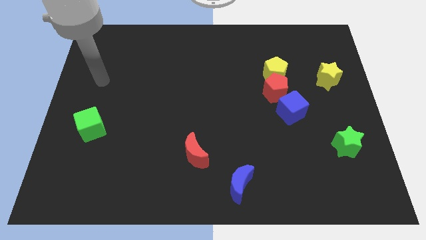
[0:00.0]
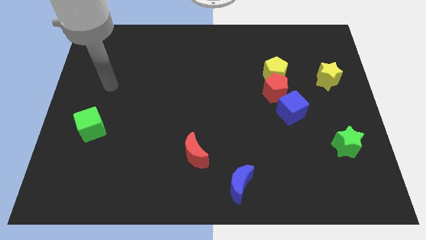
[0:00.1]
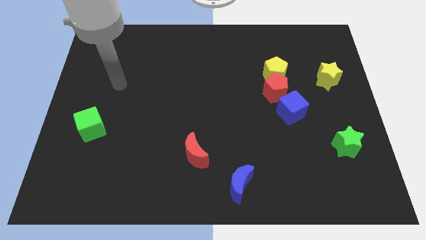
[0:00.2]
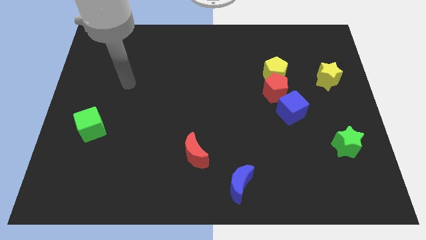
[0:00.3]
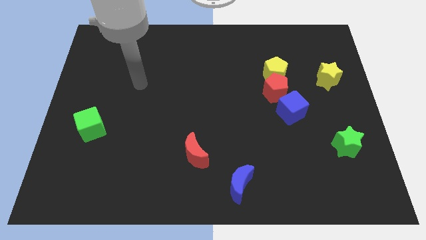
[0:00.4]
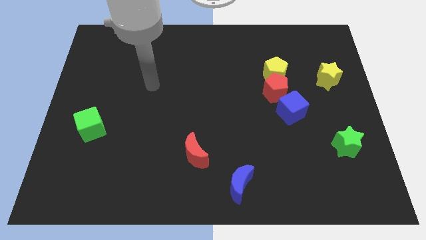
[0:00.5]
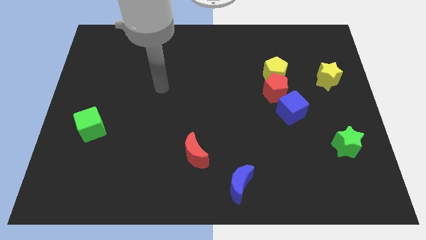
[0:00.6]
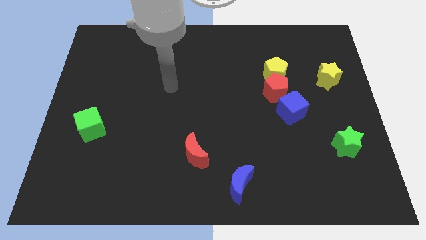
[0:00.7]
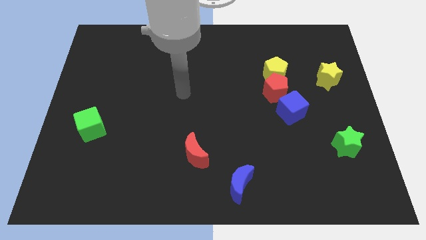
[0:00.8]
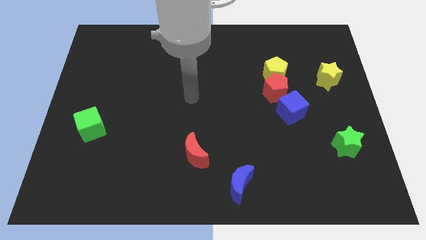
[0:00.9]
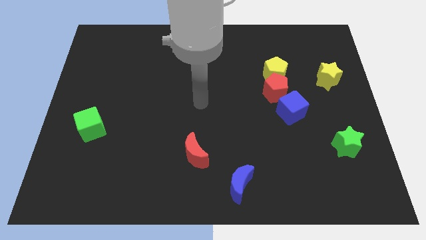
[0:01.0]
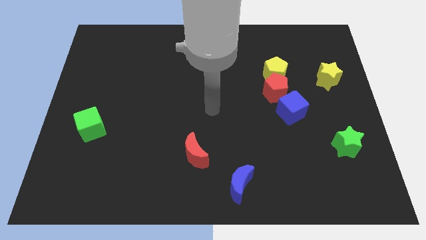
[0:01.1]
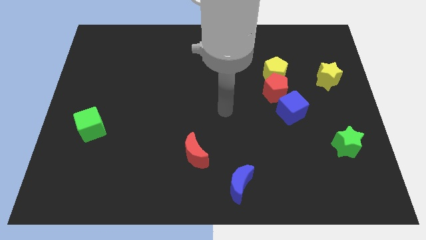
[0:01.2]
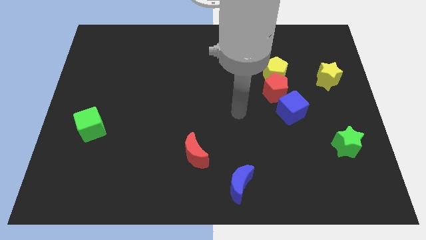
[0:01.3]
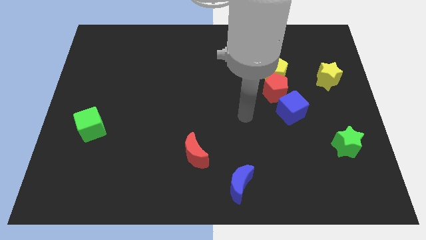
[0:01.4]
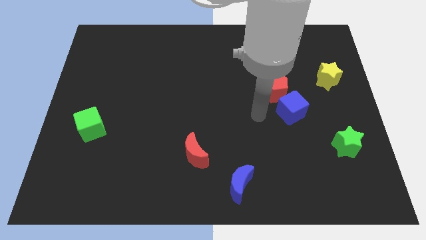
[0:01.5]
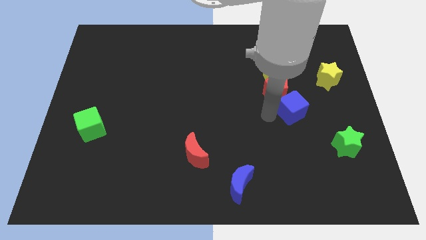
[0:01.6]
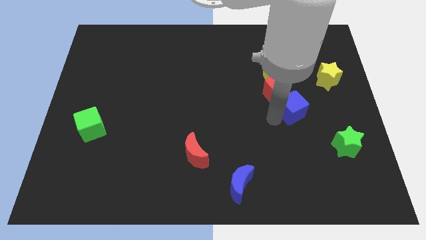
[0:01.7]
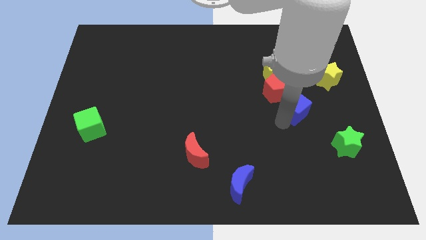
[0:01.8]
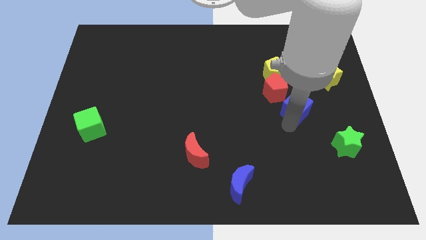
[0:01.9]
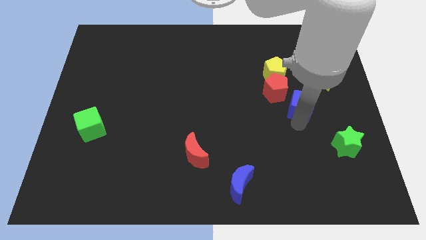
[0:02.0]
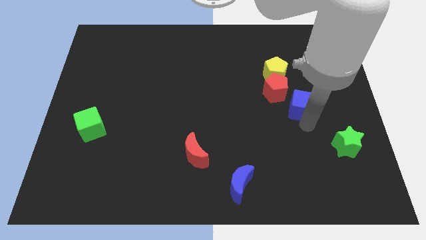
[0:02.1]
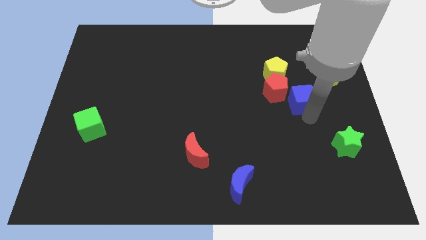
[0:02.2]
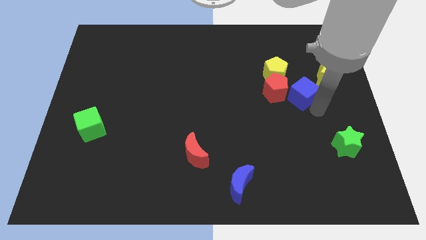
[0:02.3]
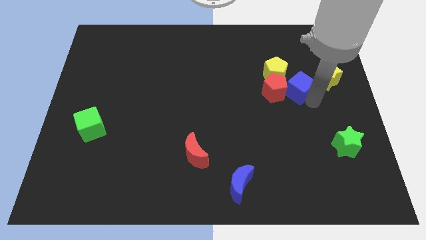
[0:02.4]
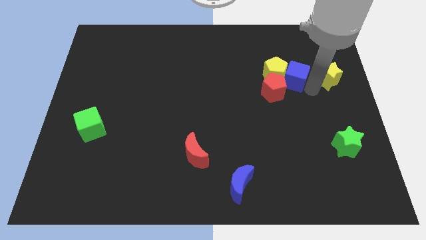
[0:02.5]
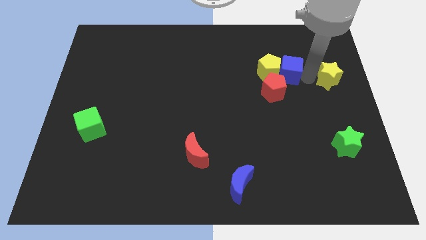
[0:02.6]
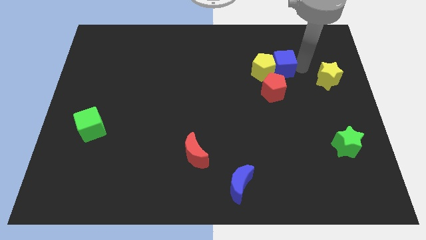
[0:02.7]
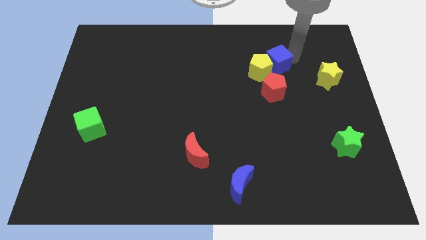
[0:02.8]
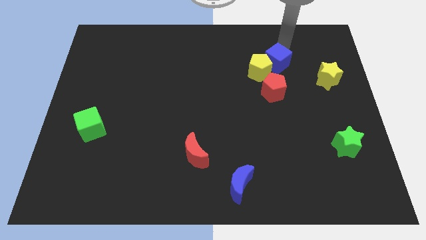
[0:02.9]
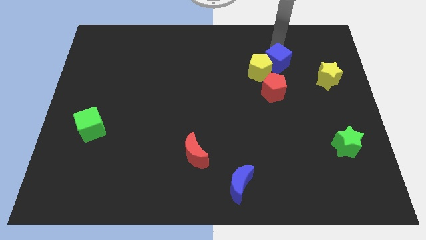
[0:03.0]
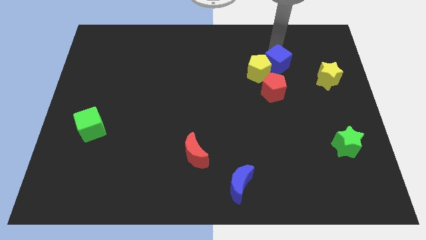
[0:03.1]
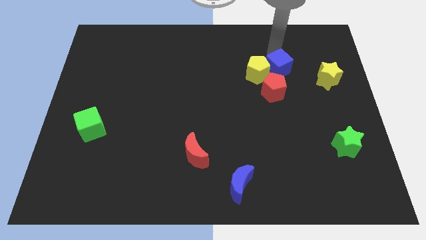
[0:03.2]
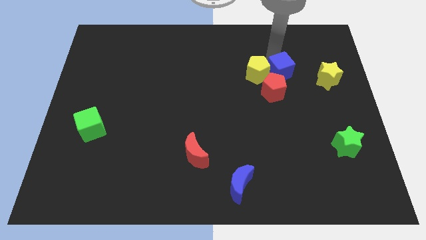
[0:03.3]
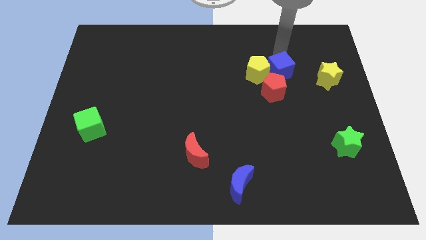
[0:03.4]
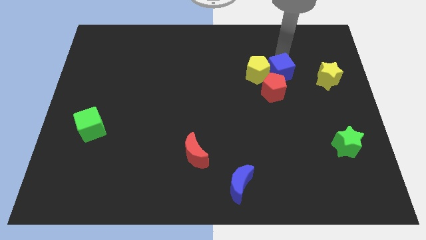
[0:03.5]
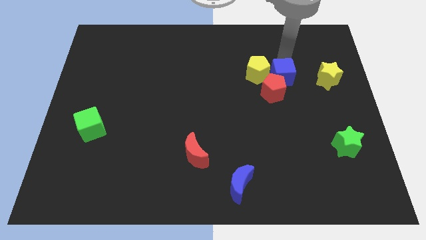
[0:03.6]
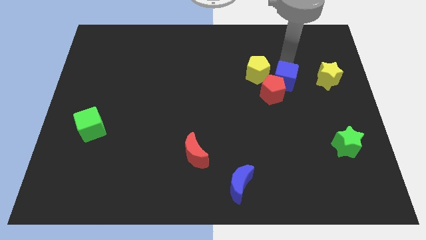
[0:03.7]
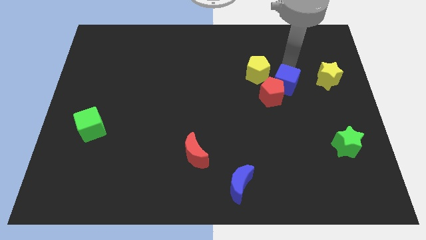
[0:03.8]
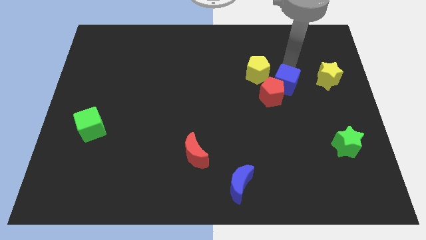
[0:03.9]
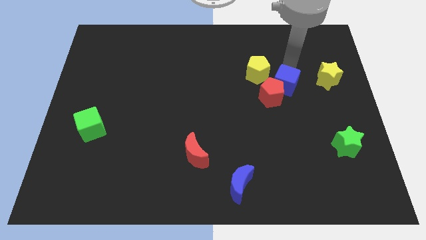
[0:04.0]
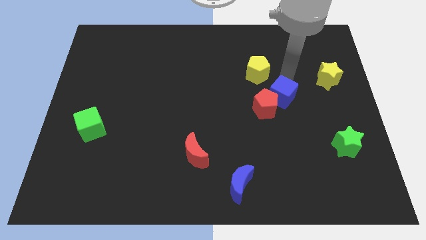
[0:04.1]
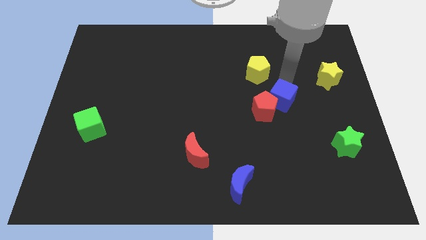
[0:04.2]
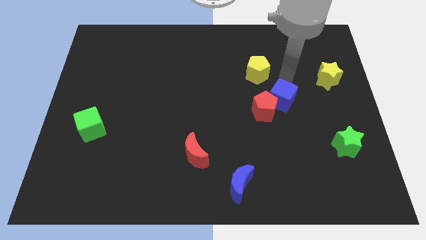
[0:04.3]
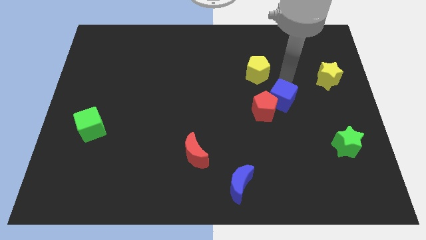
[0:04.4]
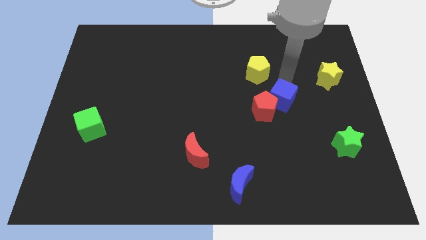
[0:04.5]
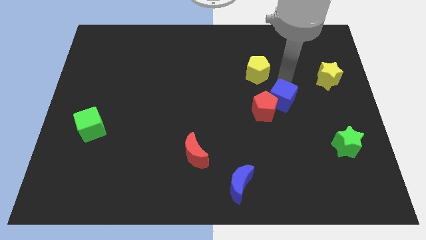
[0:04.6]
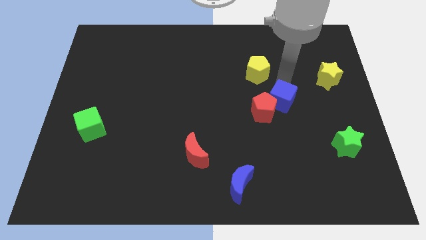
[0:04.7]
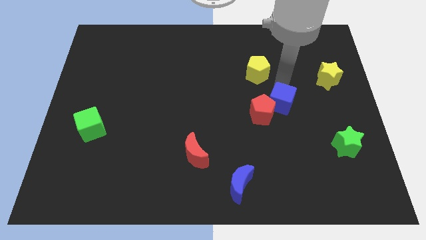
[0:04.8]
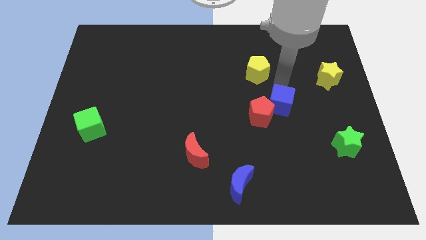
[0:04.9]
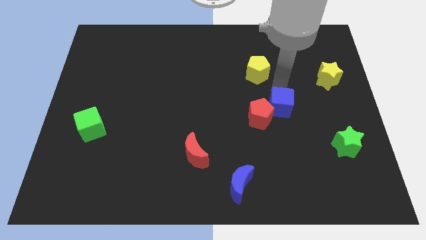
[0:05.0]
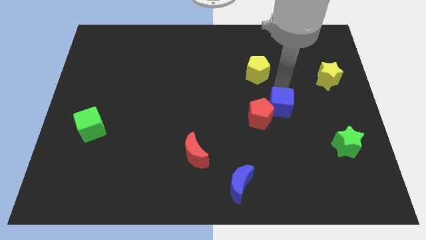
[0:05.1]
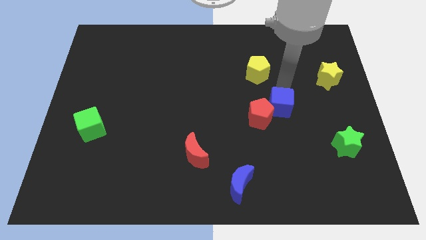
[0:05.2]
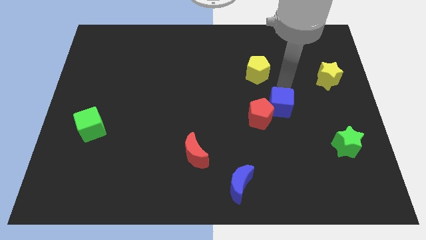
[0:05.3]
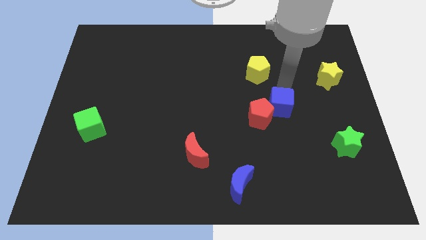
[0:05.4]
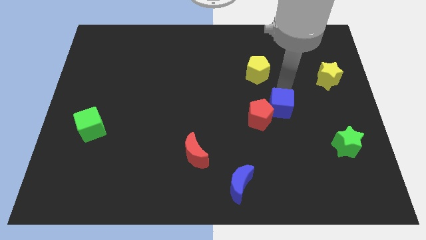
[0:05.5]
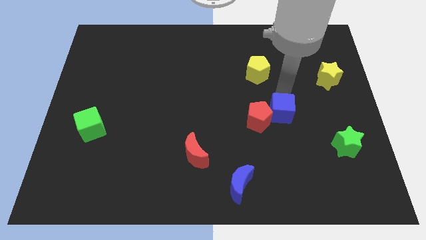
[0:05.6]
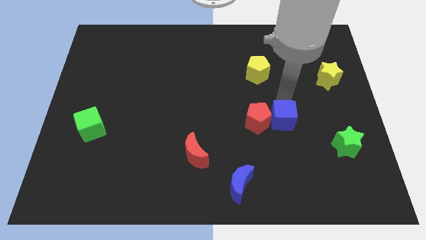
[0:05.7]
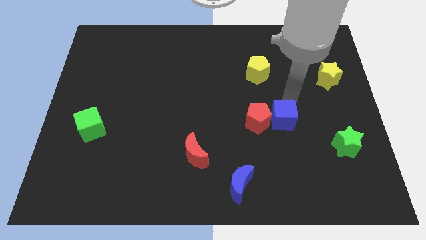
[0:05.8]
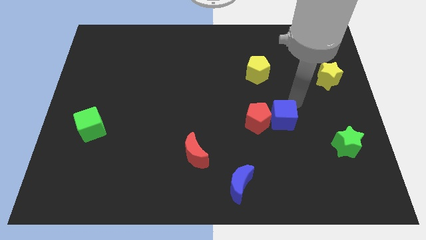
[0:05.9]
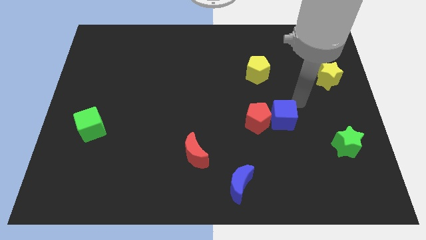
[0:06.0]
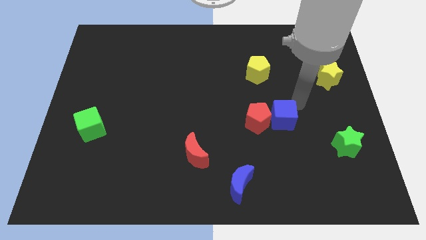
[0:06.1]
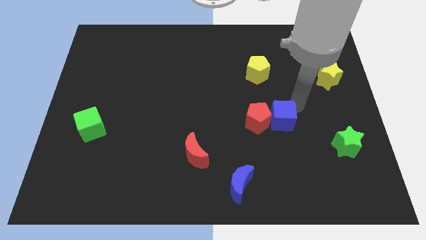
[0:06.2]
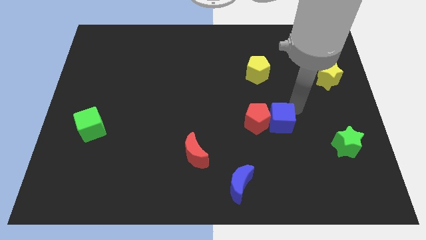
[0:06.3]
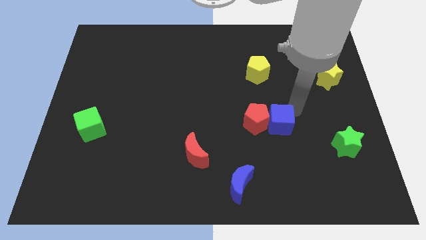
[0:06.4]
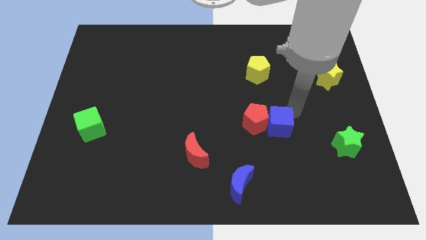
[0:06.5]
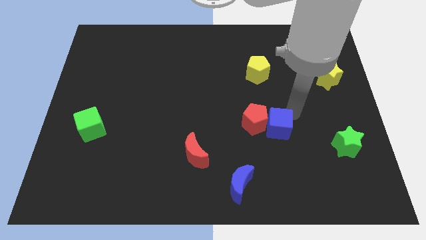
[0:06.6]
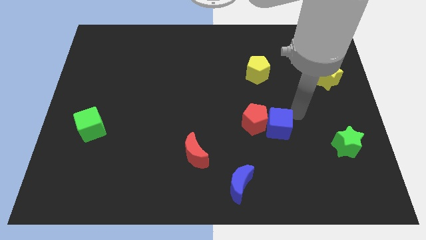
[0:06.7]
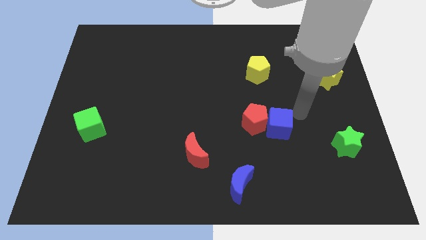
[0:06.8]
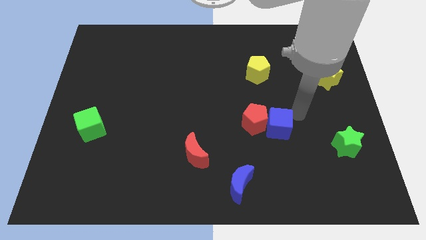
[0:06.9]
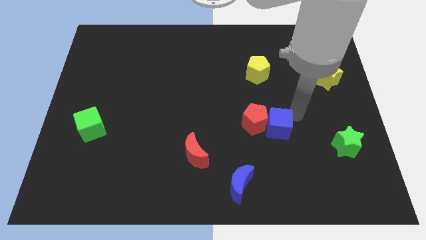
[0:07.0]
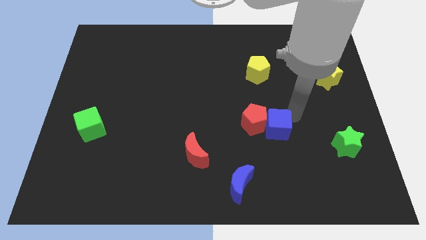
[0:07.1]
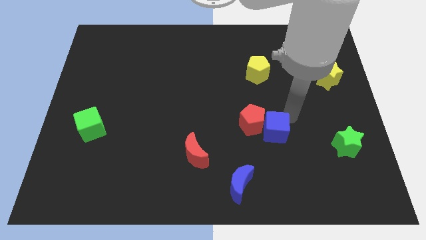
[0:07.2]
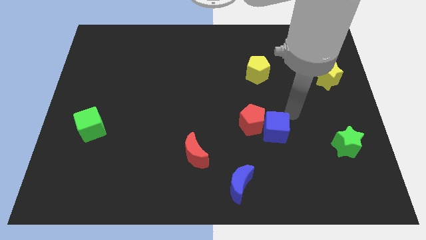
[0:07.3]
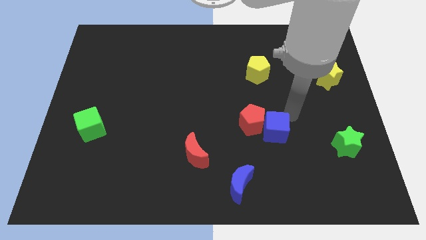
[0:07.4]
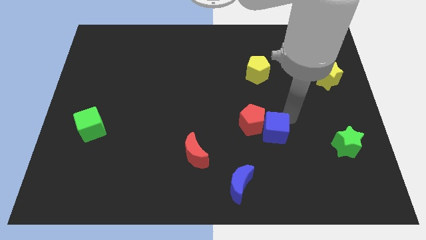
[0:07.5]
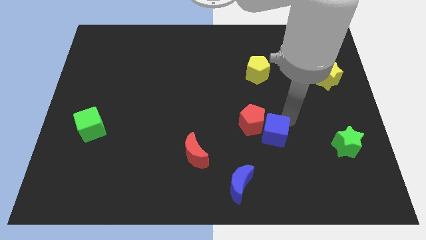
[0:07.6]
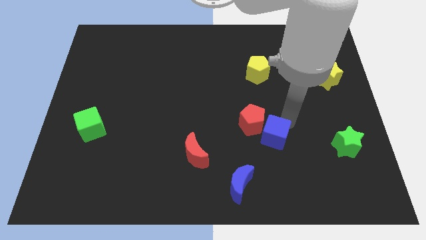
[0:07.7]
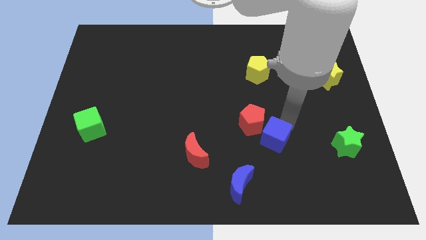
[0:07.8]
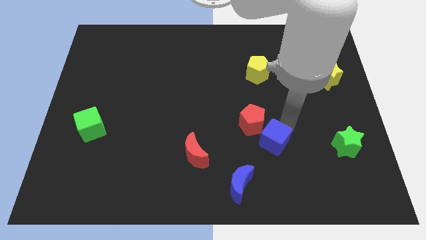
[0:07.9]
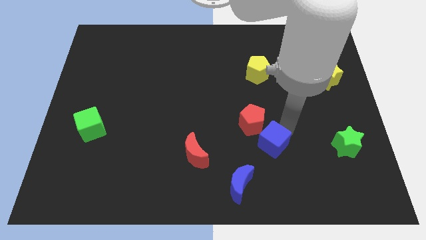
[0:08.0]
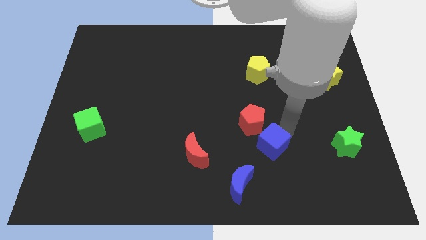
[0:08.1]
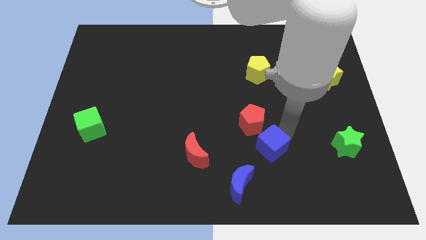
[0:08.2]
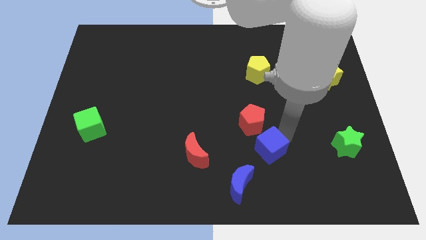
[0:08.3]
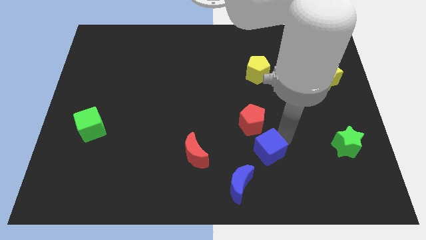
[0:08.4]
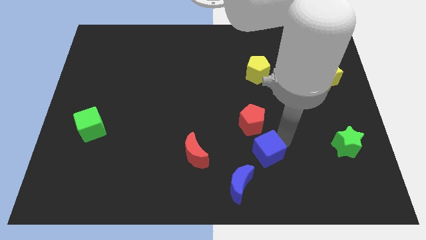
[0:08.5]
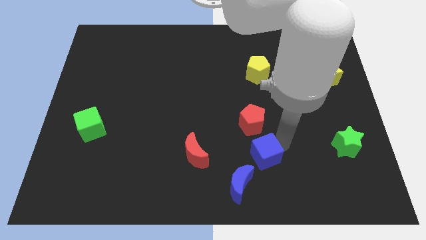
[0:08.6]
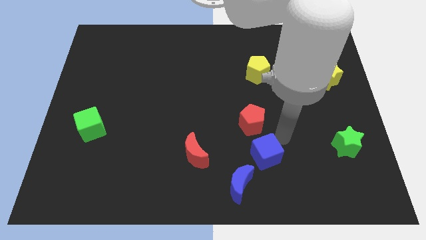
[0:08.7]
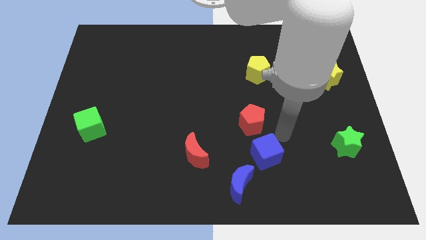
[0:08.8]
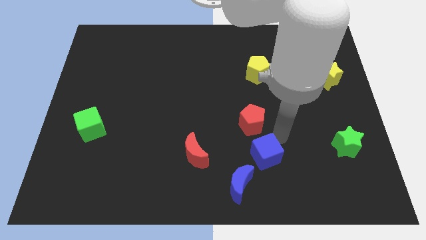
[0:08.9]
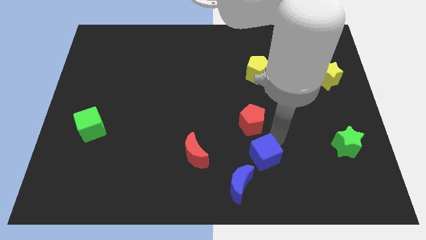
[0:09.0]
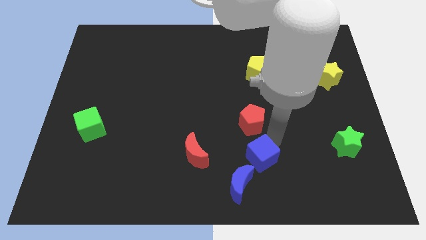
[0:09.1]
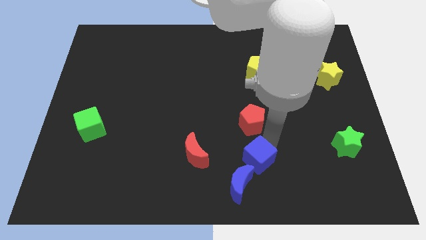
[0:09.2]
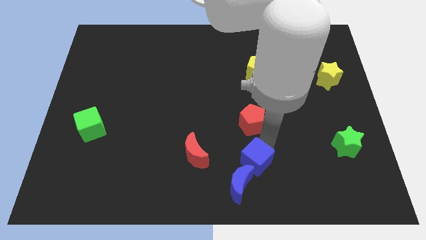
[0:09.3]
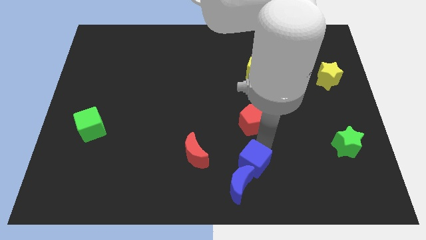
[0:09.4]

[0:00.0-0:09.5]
move the blue cube next to the blue moon
